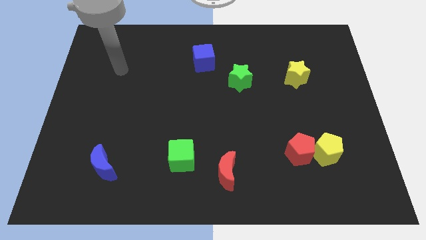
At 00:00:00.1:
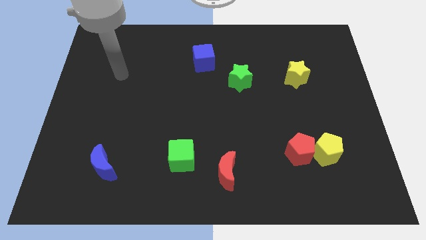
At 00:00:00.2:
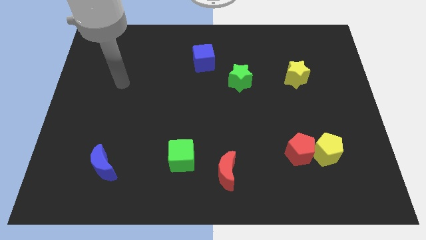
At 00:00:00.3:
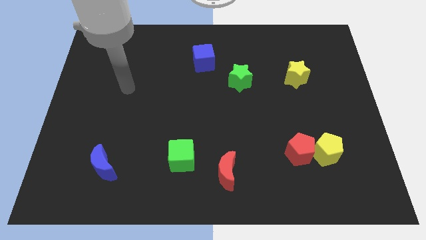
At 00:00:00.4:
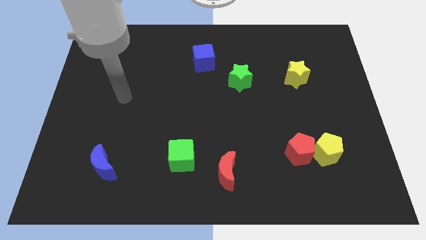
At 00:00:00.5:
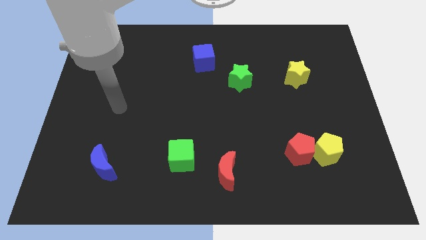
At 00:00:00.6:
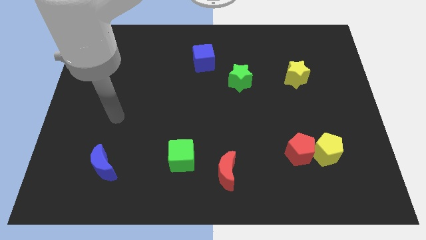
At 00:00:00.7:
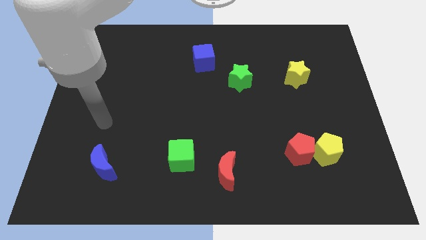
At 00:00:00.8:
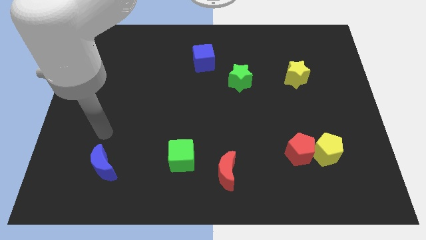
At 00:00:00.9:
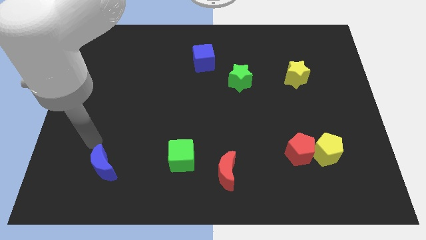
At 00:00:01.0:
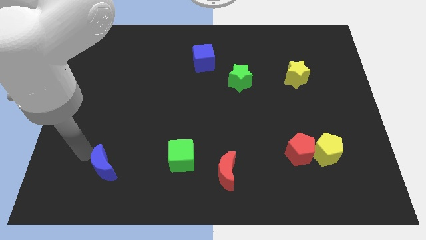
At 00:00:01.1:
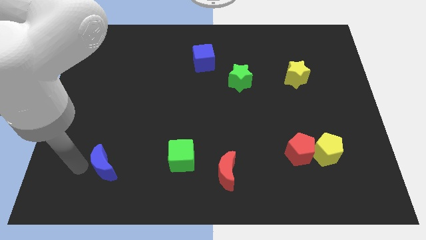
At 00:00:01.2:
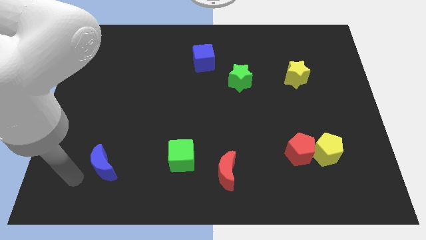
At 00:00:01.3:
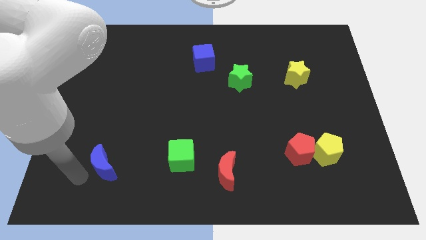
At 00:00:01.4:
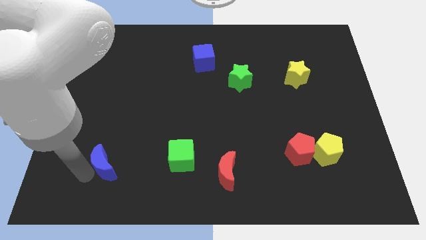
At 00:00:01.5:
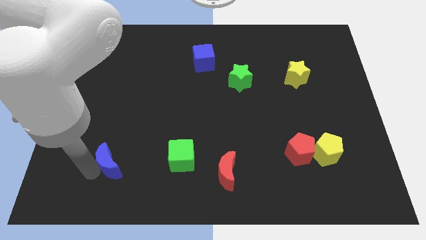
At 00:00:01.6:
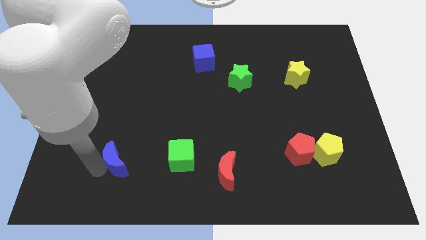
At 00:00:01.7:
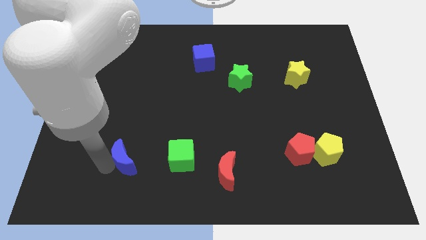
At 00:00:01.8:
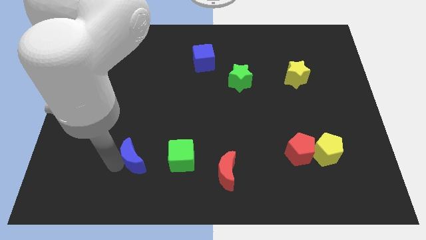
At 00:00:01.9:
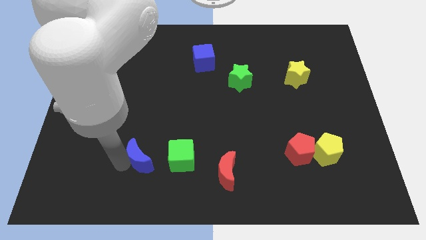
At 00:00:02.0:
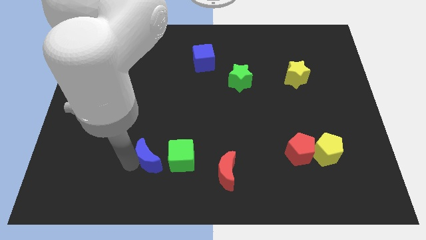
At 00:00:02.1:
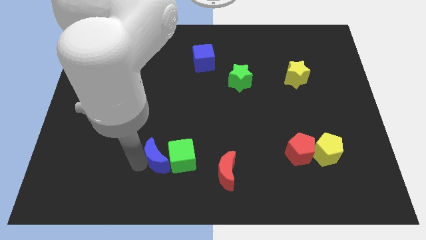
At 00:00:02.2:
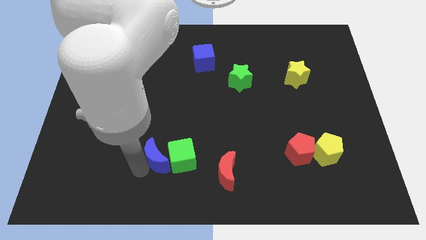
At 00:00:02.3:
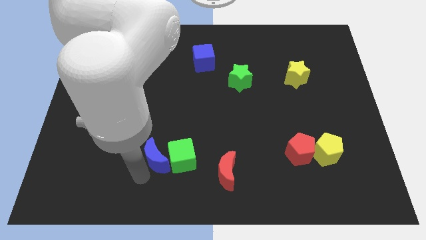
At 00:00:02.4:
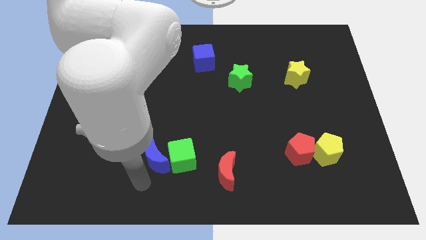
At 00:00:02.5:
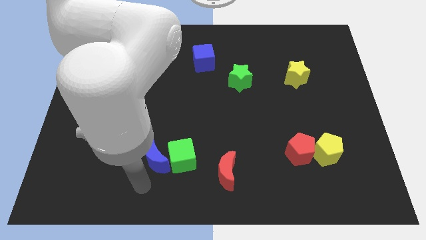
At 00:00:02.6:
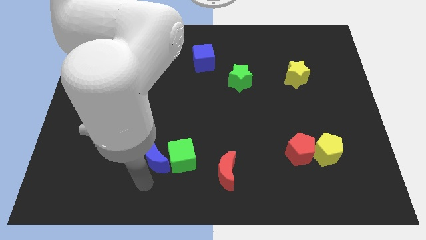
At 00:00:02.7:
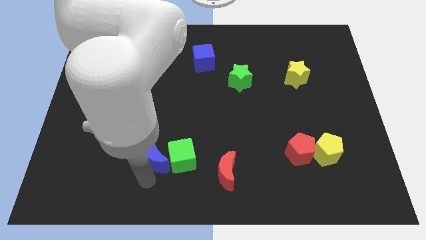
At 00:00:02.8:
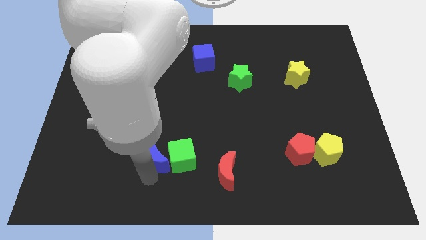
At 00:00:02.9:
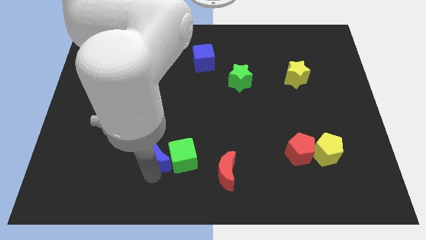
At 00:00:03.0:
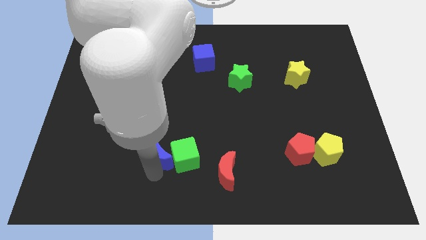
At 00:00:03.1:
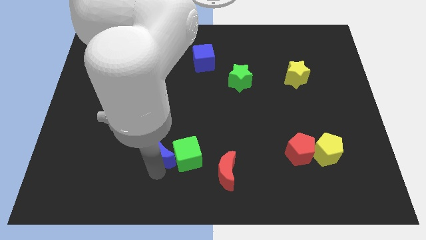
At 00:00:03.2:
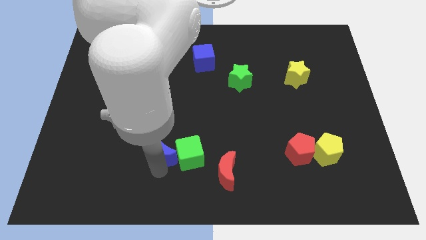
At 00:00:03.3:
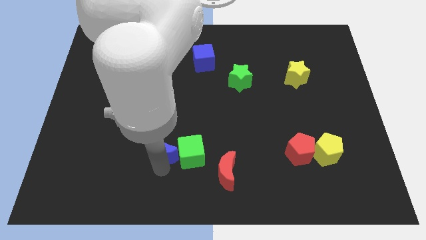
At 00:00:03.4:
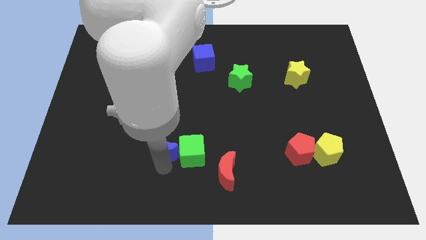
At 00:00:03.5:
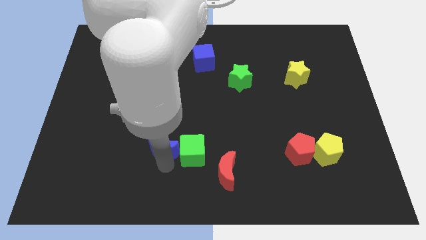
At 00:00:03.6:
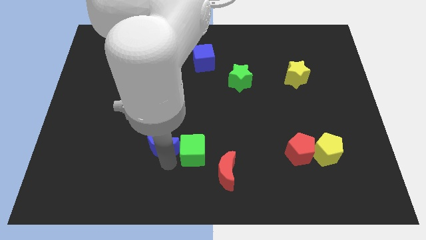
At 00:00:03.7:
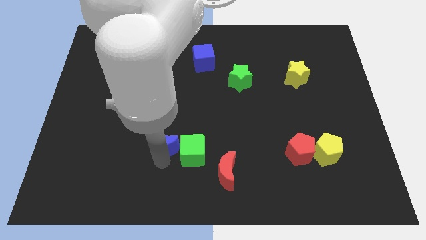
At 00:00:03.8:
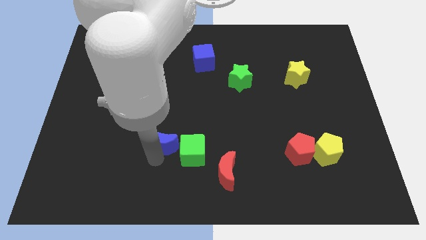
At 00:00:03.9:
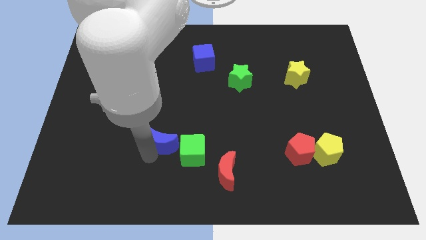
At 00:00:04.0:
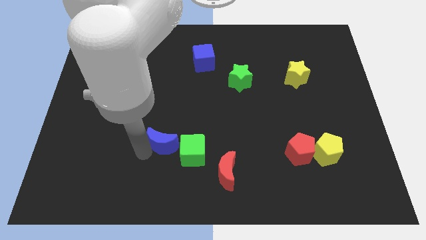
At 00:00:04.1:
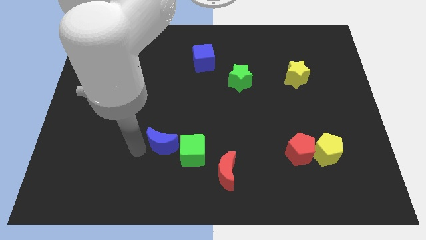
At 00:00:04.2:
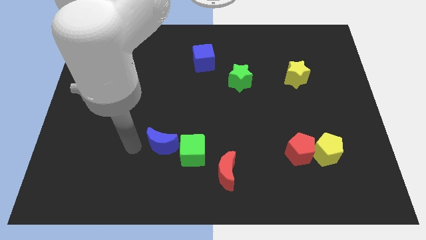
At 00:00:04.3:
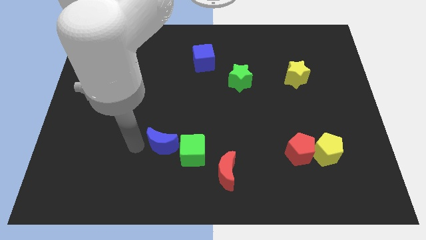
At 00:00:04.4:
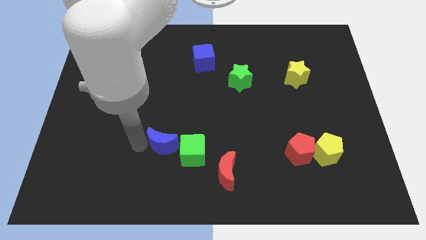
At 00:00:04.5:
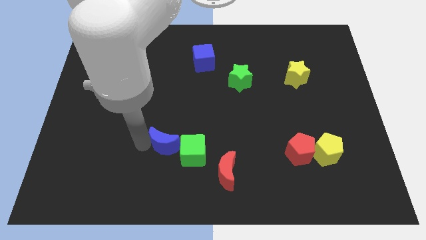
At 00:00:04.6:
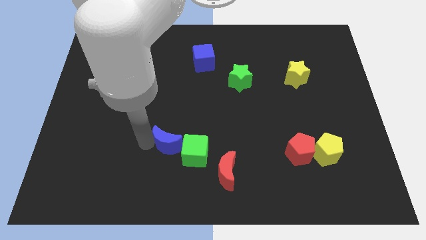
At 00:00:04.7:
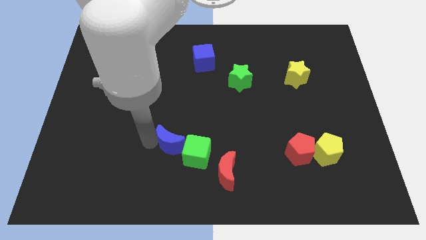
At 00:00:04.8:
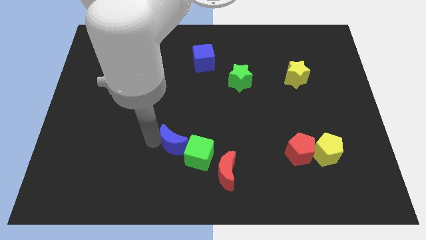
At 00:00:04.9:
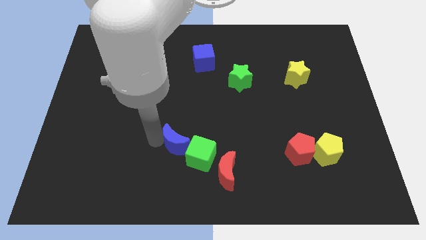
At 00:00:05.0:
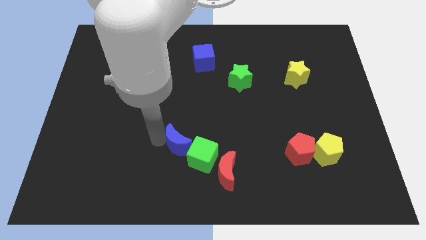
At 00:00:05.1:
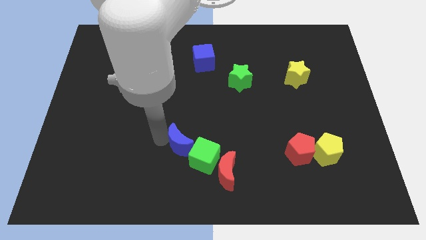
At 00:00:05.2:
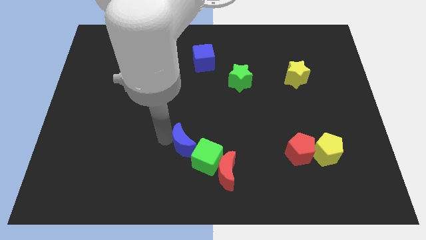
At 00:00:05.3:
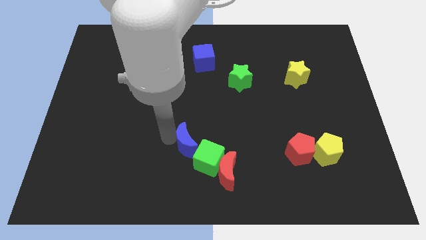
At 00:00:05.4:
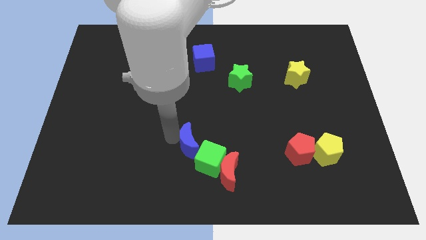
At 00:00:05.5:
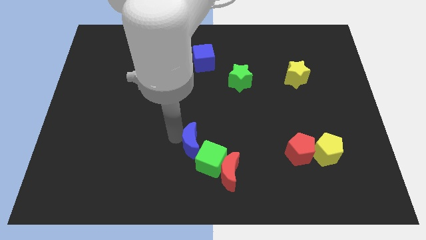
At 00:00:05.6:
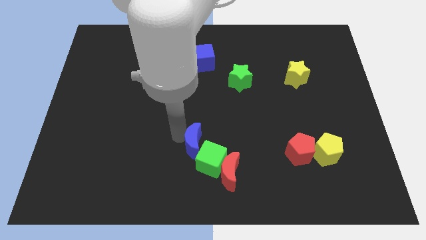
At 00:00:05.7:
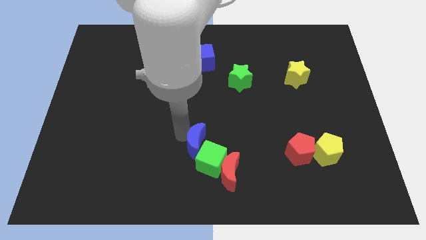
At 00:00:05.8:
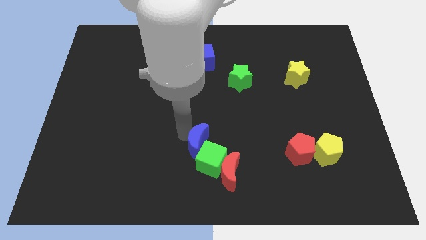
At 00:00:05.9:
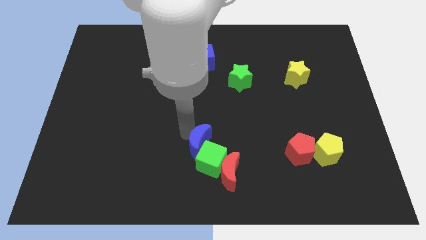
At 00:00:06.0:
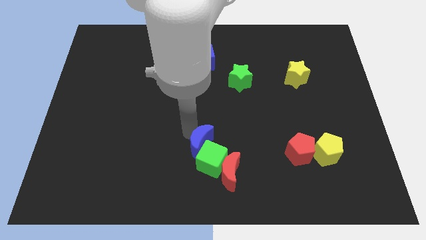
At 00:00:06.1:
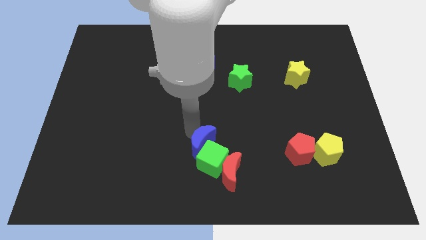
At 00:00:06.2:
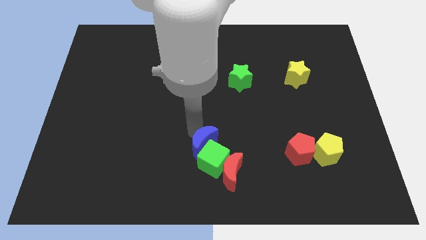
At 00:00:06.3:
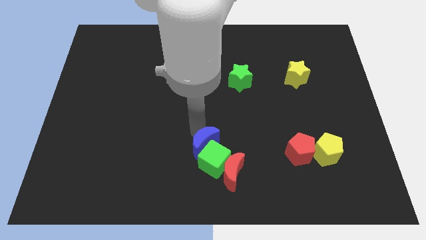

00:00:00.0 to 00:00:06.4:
move the blue moon right

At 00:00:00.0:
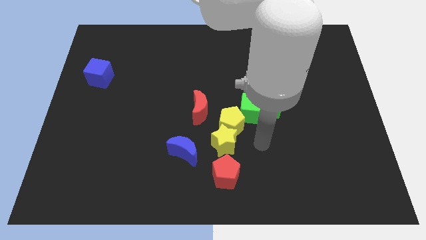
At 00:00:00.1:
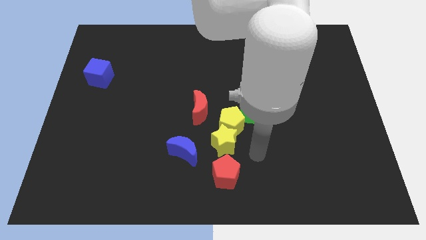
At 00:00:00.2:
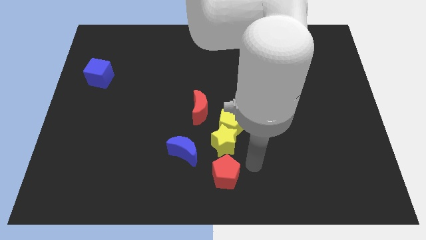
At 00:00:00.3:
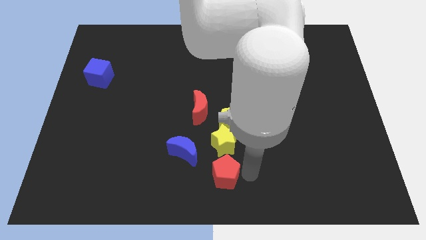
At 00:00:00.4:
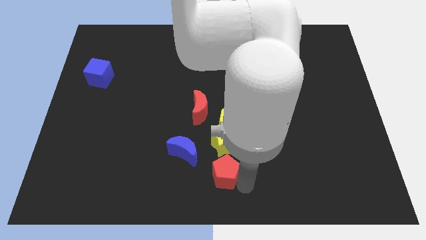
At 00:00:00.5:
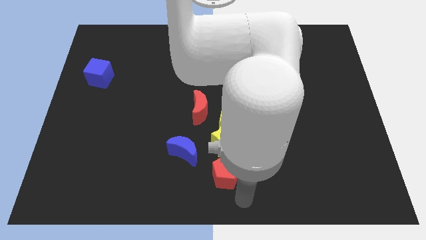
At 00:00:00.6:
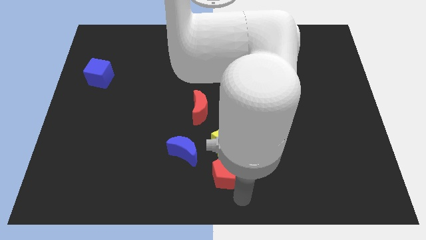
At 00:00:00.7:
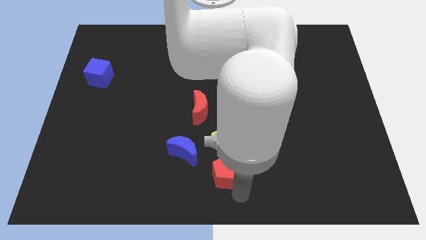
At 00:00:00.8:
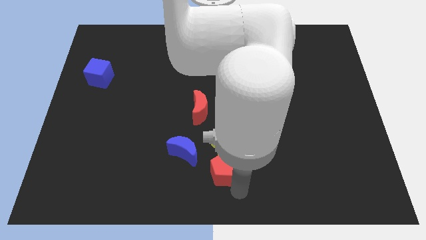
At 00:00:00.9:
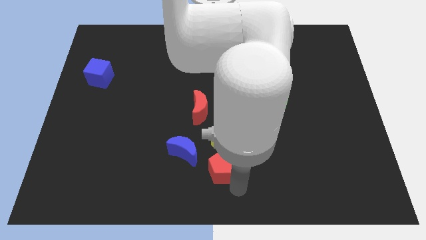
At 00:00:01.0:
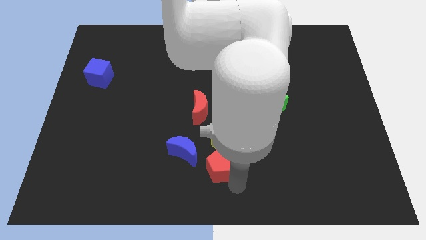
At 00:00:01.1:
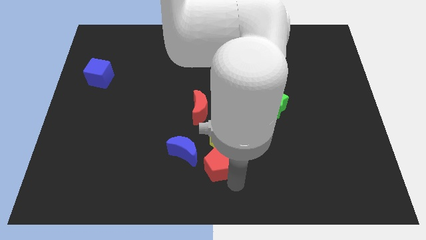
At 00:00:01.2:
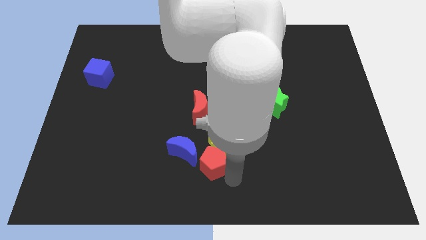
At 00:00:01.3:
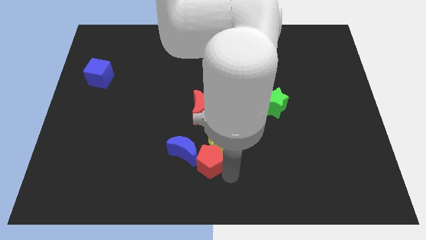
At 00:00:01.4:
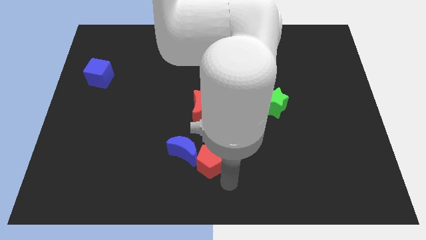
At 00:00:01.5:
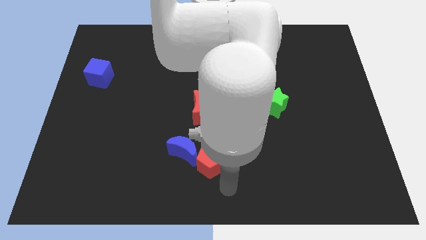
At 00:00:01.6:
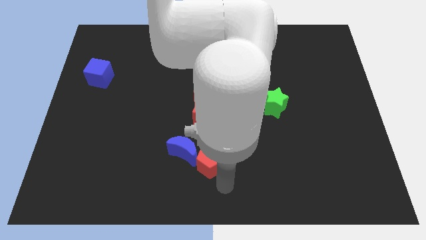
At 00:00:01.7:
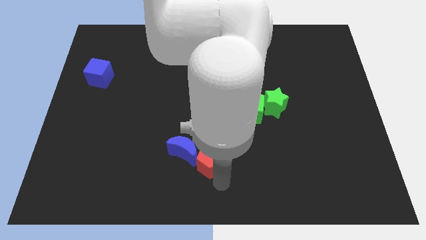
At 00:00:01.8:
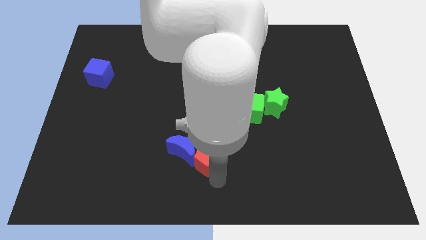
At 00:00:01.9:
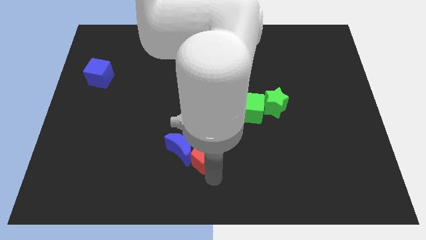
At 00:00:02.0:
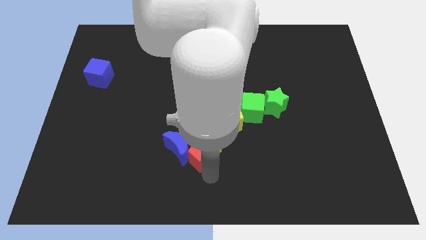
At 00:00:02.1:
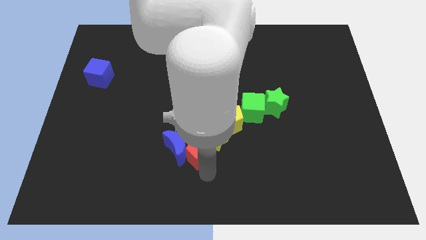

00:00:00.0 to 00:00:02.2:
slightly push the red pentagon up and then left
